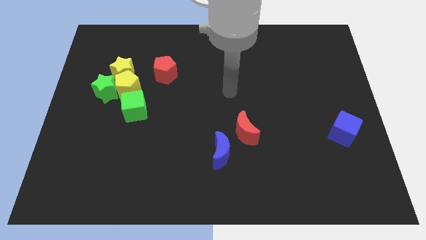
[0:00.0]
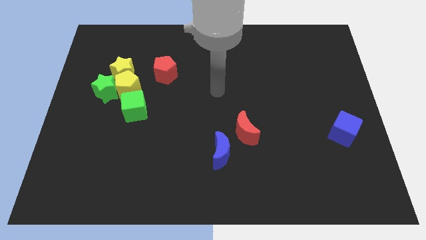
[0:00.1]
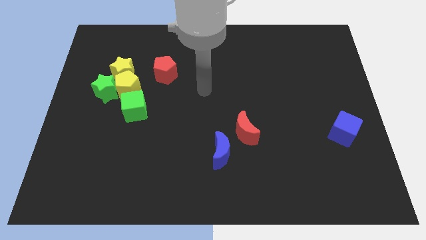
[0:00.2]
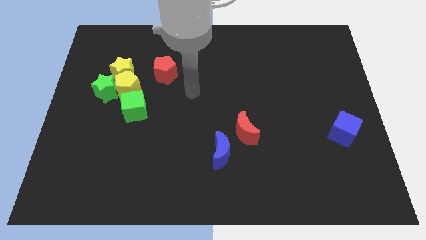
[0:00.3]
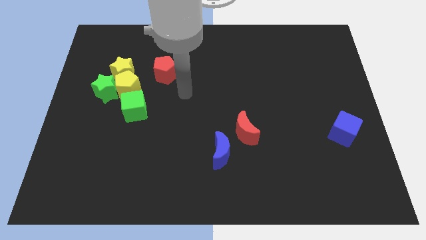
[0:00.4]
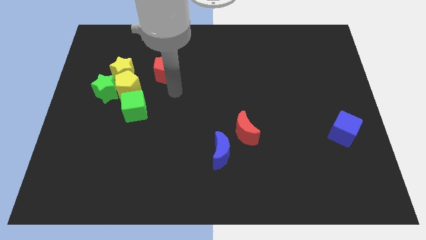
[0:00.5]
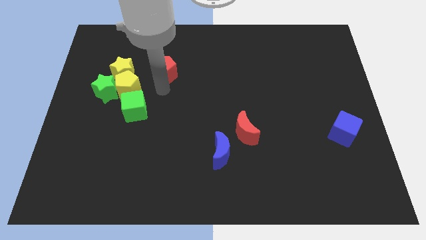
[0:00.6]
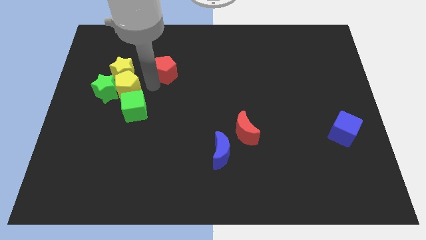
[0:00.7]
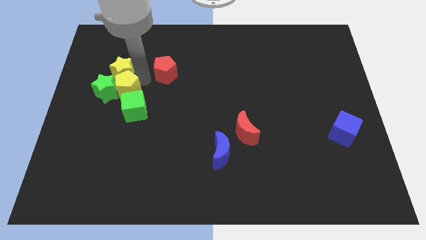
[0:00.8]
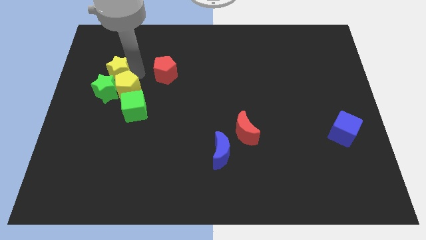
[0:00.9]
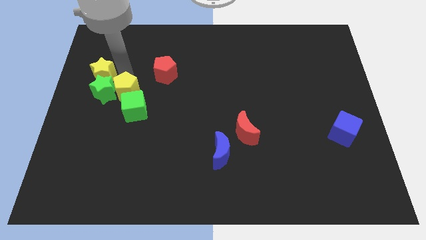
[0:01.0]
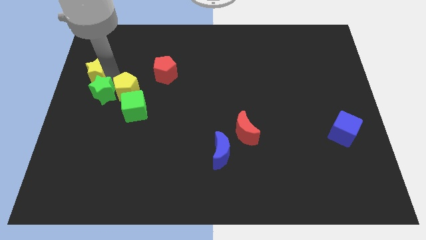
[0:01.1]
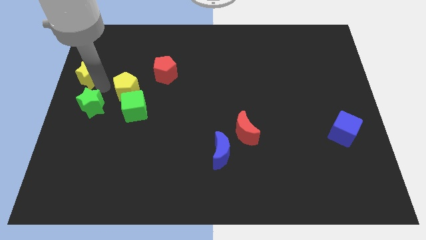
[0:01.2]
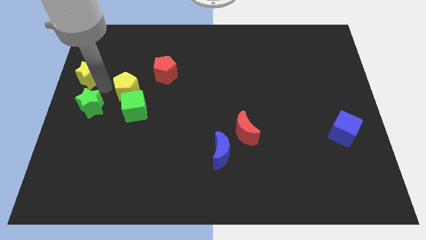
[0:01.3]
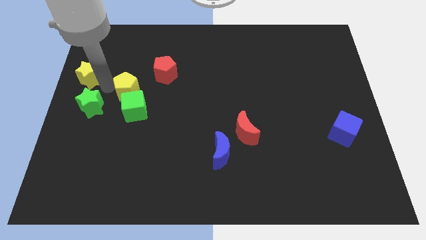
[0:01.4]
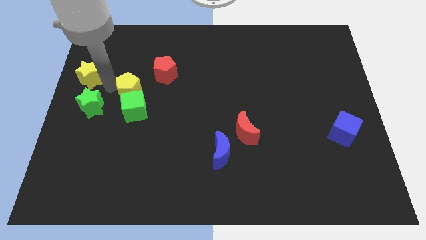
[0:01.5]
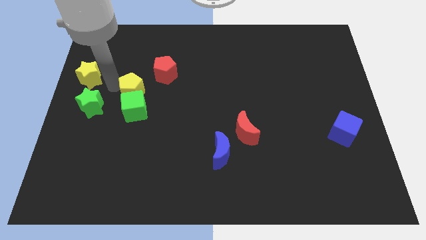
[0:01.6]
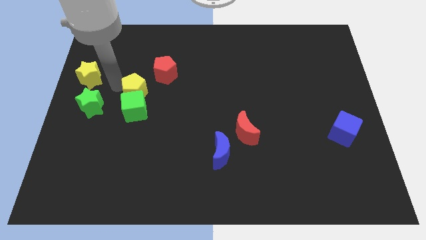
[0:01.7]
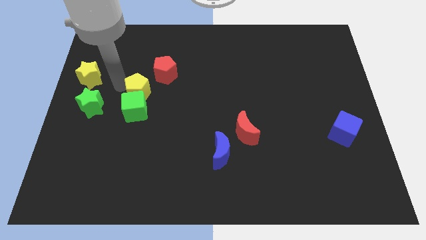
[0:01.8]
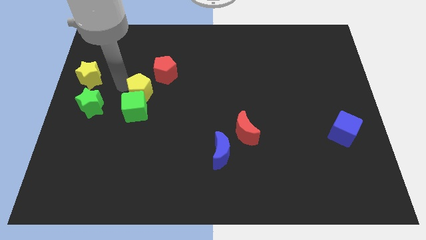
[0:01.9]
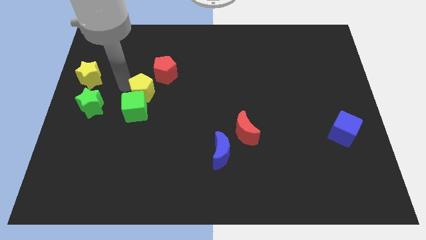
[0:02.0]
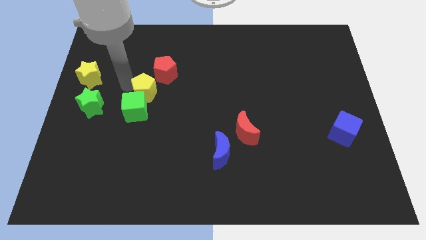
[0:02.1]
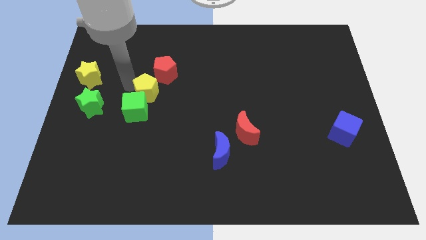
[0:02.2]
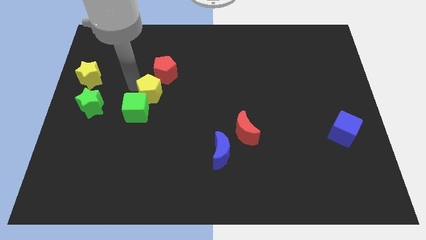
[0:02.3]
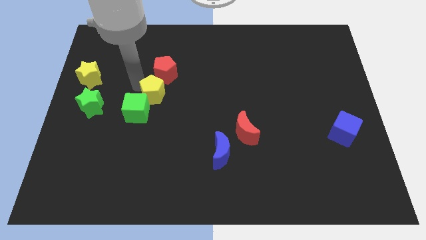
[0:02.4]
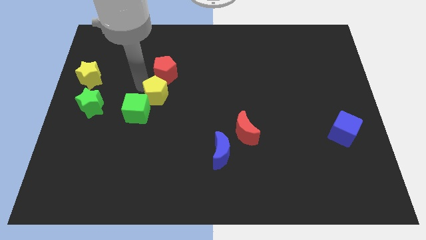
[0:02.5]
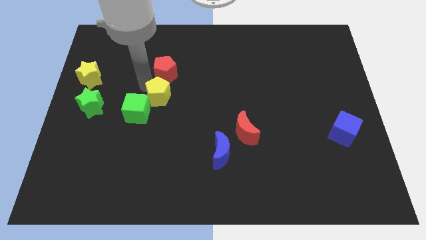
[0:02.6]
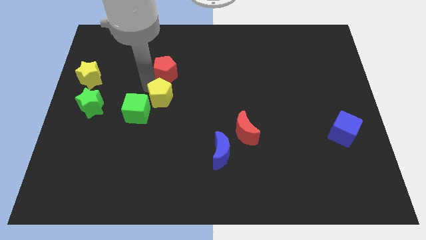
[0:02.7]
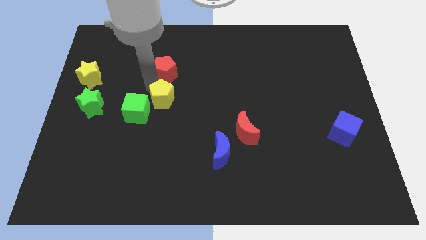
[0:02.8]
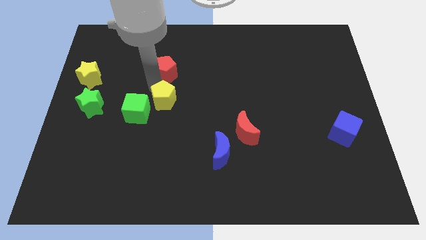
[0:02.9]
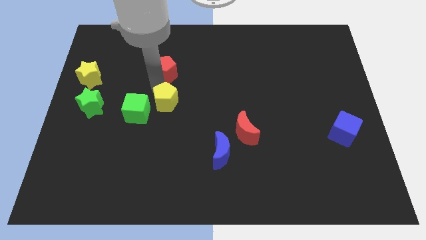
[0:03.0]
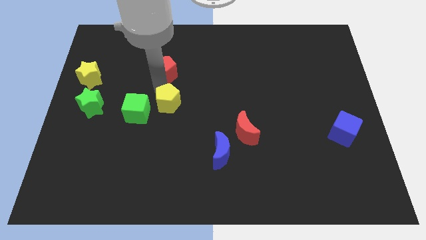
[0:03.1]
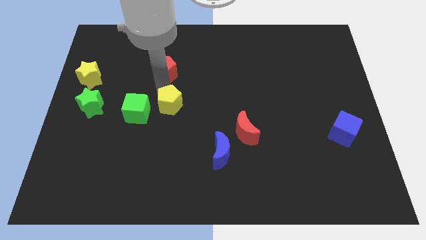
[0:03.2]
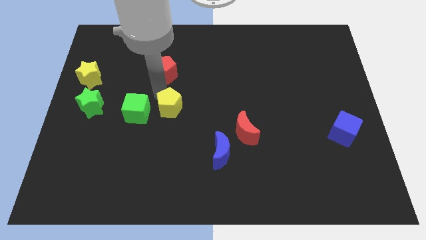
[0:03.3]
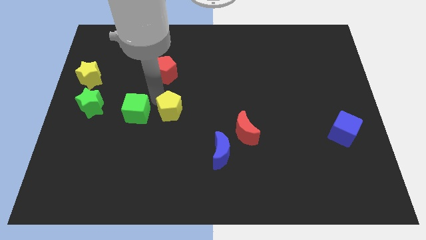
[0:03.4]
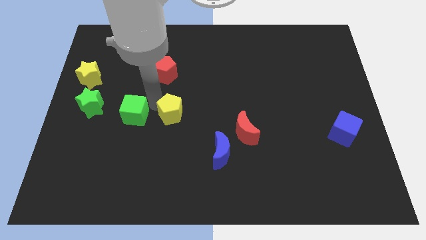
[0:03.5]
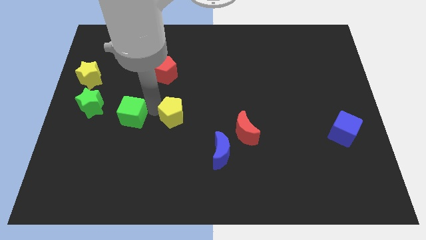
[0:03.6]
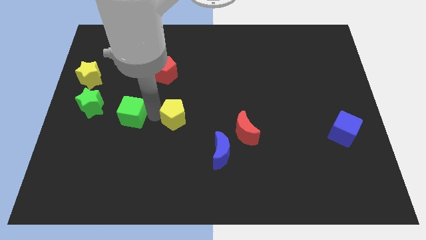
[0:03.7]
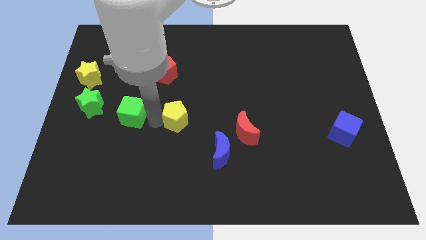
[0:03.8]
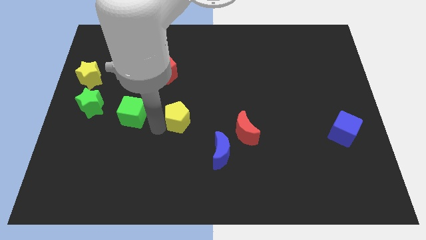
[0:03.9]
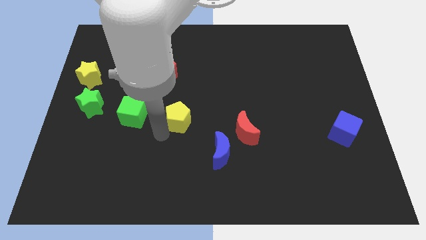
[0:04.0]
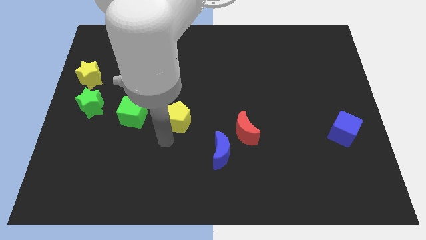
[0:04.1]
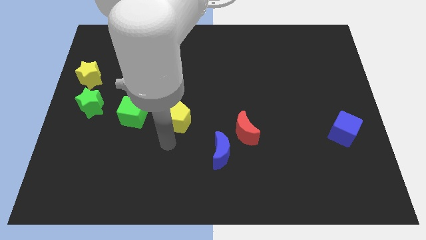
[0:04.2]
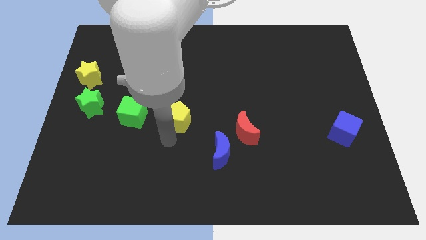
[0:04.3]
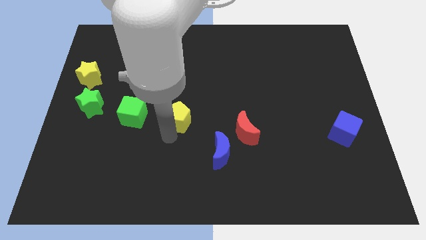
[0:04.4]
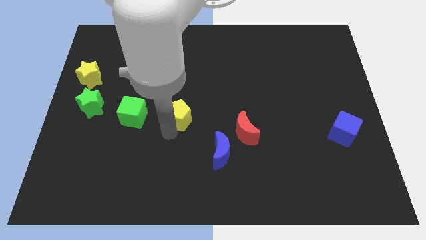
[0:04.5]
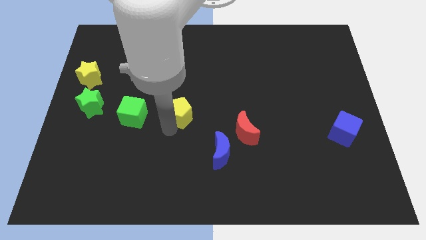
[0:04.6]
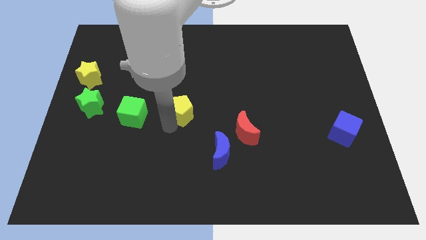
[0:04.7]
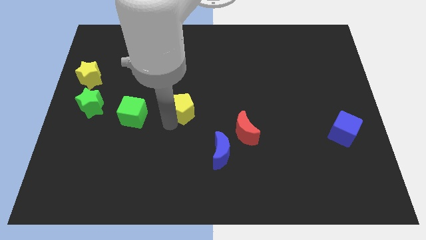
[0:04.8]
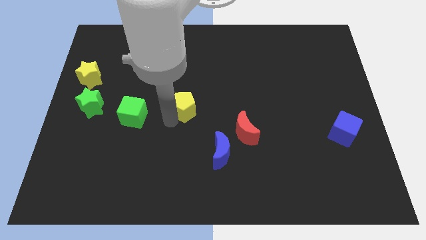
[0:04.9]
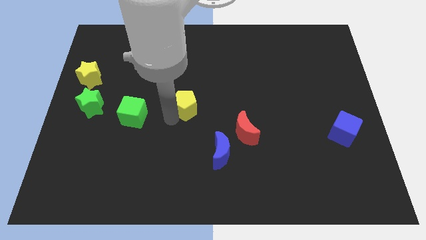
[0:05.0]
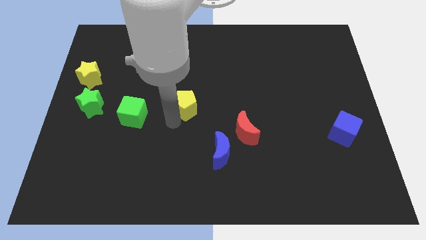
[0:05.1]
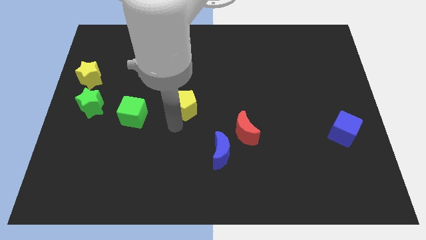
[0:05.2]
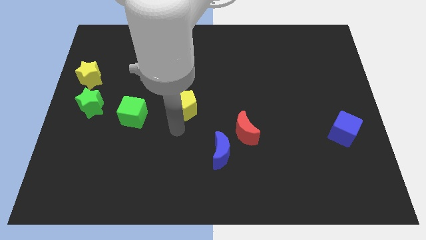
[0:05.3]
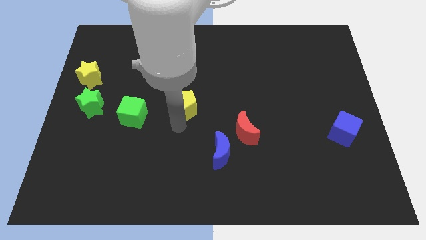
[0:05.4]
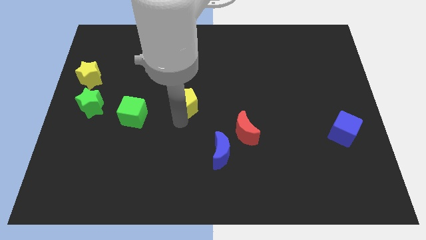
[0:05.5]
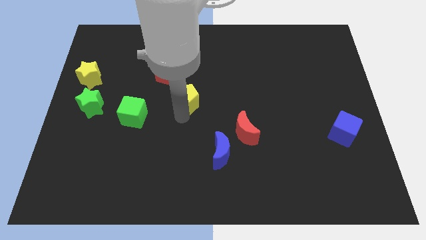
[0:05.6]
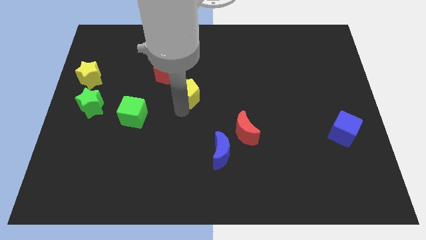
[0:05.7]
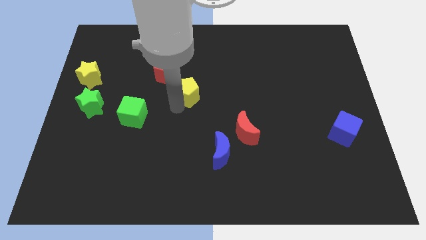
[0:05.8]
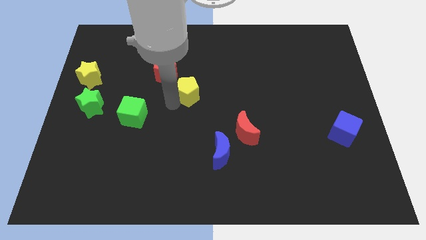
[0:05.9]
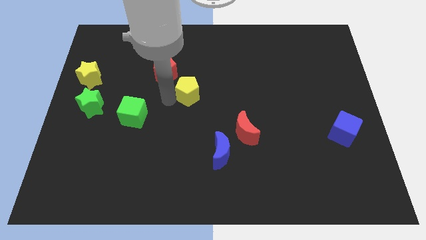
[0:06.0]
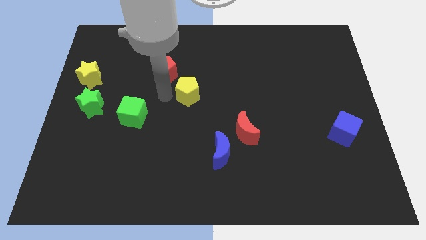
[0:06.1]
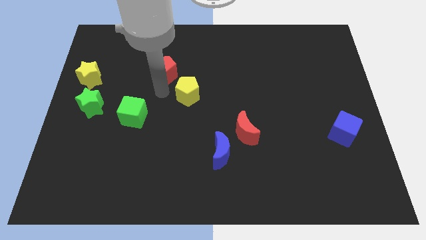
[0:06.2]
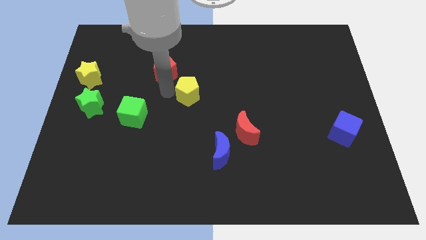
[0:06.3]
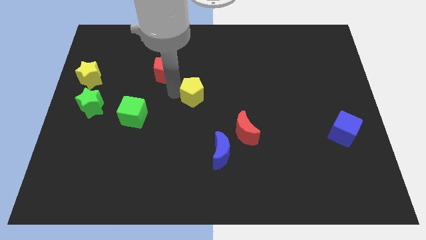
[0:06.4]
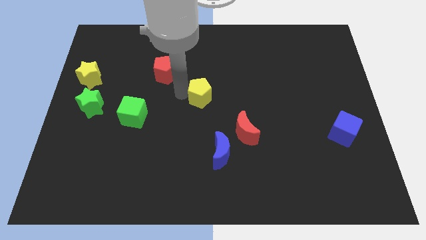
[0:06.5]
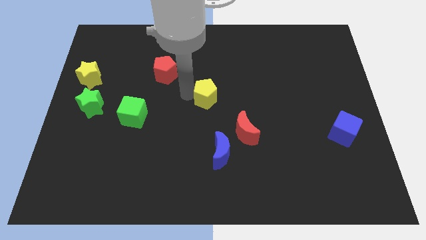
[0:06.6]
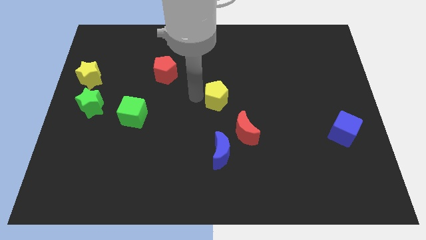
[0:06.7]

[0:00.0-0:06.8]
slide the yellow pentagon to the right

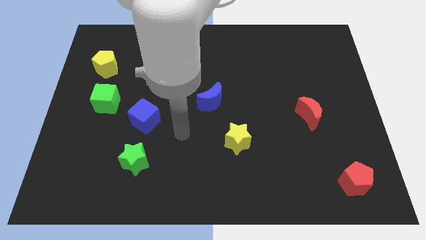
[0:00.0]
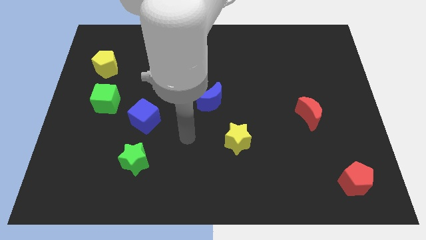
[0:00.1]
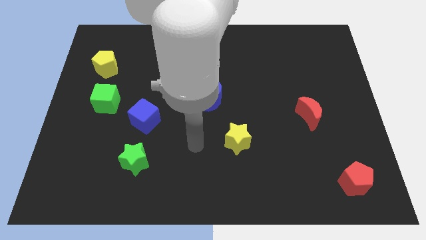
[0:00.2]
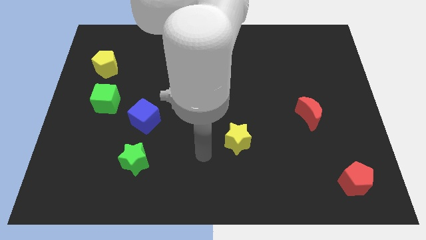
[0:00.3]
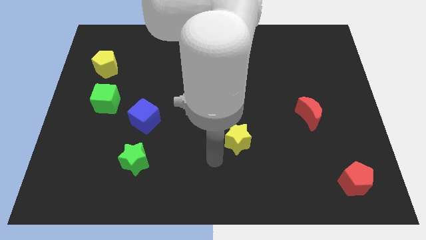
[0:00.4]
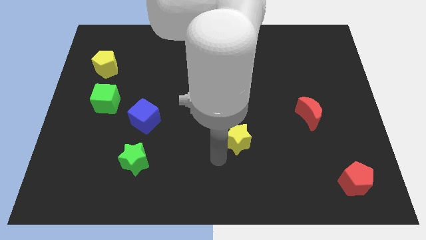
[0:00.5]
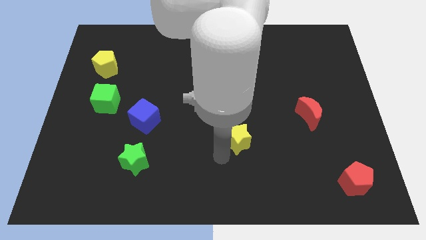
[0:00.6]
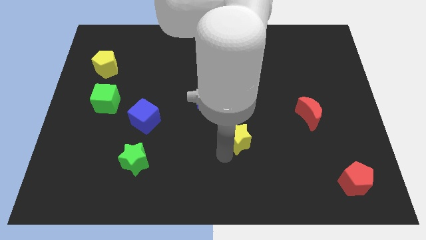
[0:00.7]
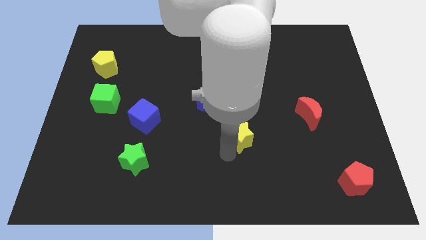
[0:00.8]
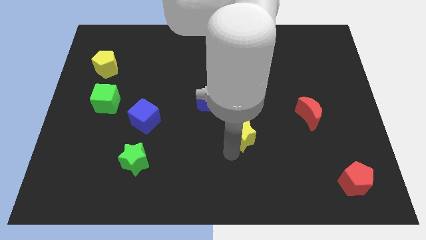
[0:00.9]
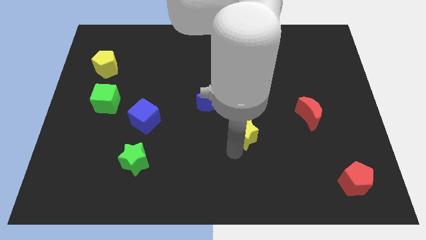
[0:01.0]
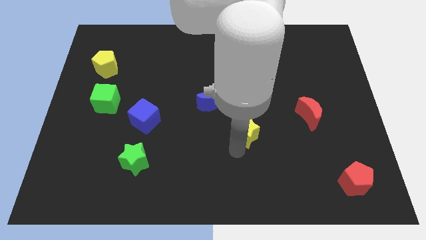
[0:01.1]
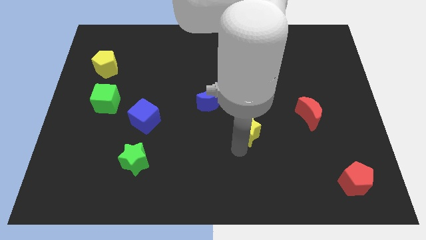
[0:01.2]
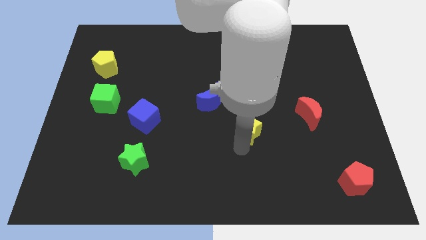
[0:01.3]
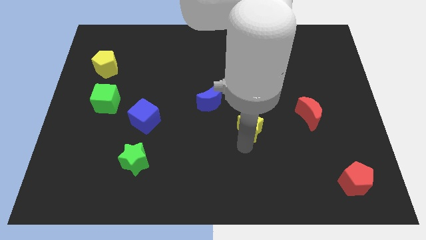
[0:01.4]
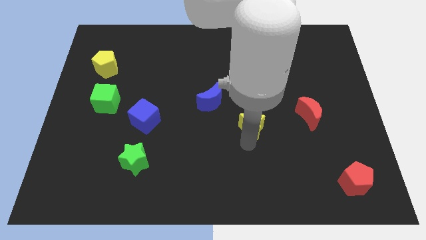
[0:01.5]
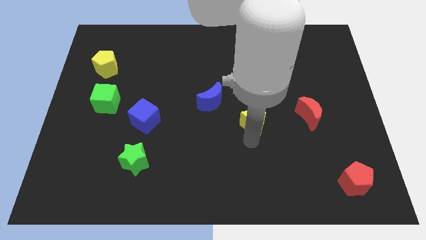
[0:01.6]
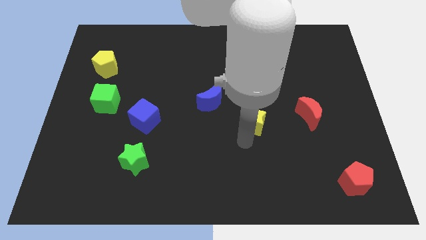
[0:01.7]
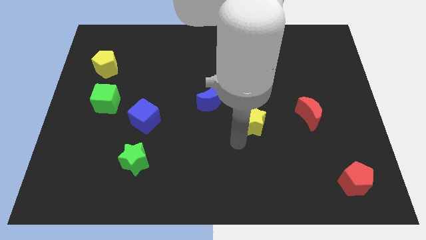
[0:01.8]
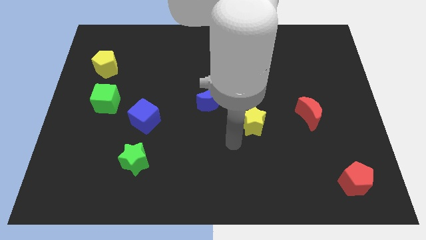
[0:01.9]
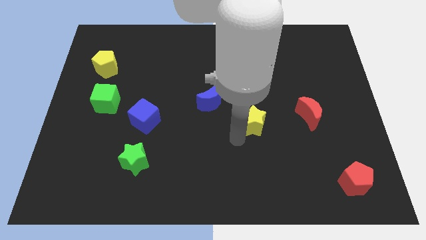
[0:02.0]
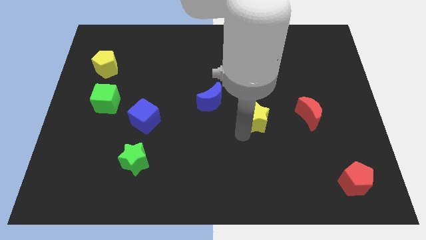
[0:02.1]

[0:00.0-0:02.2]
slightly push the yellow star upwards and then right
